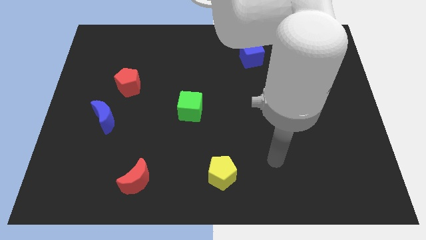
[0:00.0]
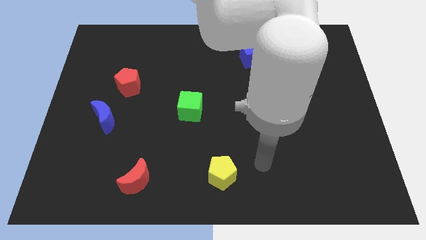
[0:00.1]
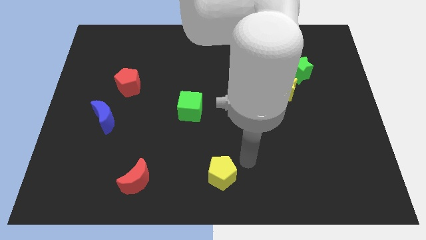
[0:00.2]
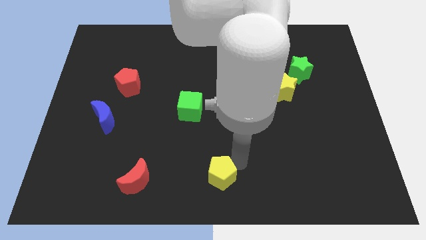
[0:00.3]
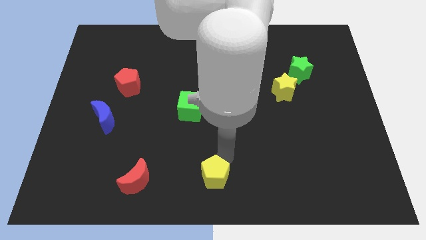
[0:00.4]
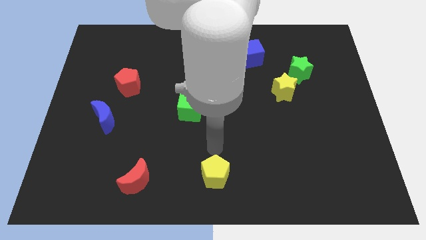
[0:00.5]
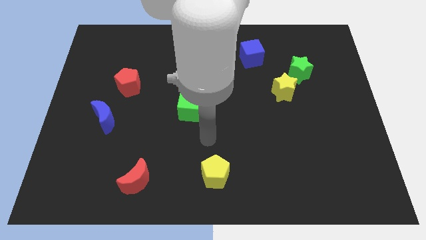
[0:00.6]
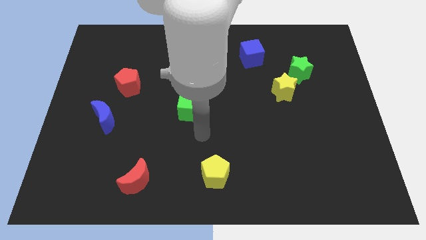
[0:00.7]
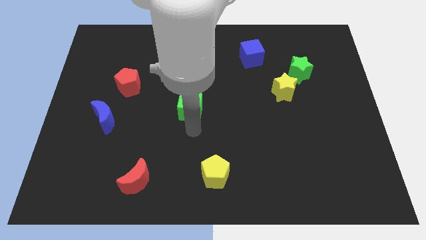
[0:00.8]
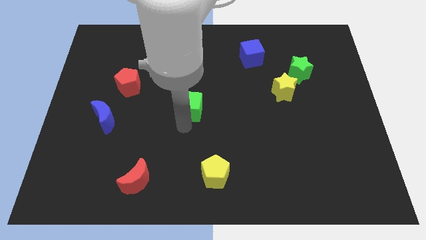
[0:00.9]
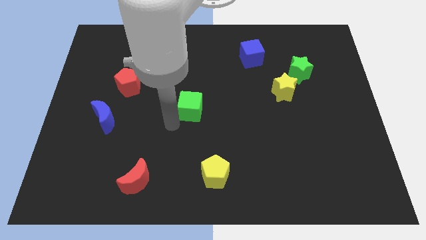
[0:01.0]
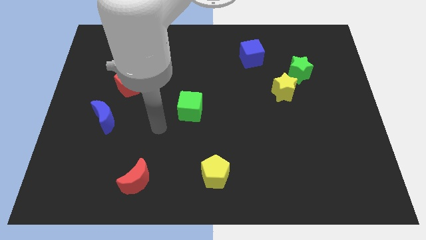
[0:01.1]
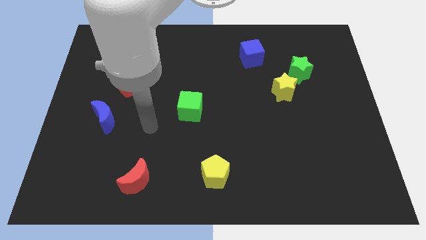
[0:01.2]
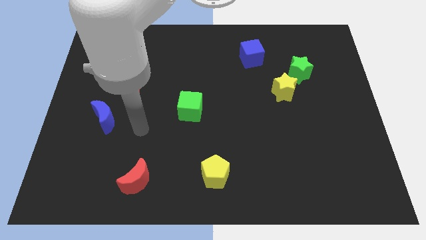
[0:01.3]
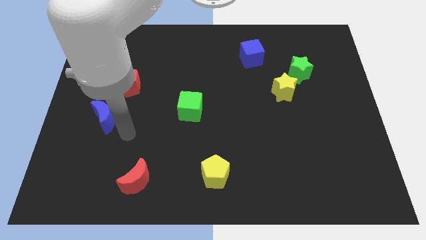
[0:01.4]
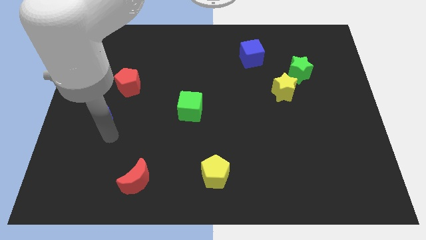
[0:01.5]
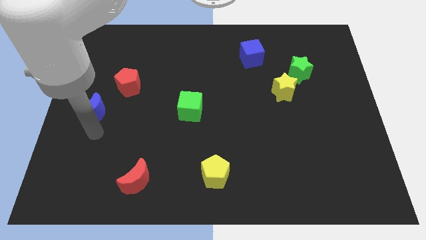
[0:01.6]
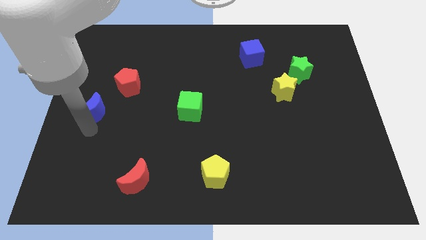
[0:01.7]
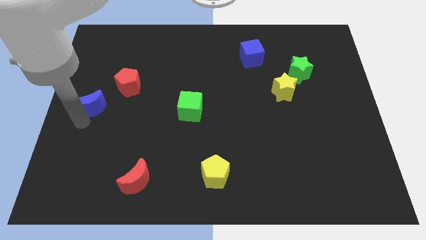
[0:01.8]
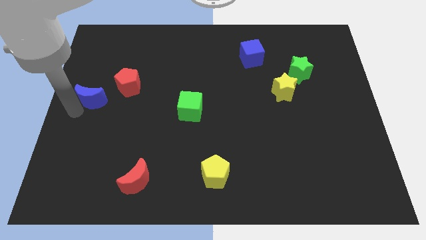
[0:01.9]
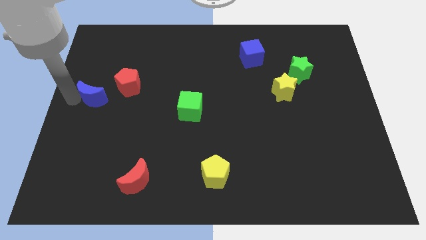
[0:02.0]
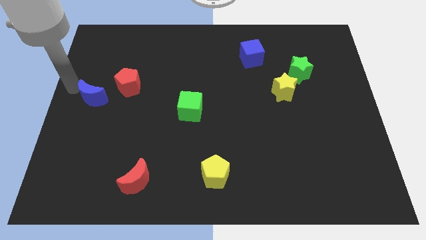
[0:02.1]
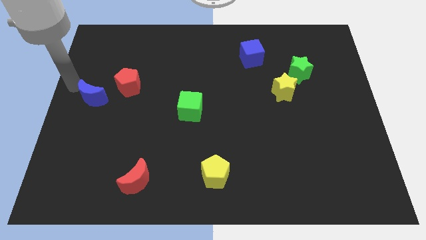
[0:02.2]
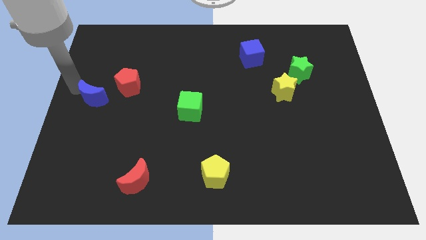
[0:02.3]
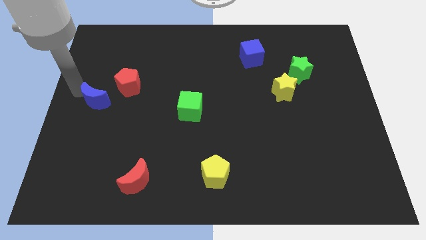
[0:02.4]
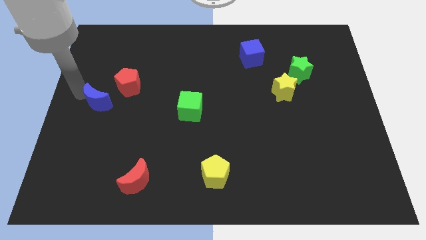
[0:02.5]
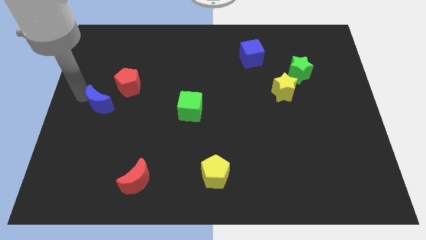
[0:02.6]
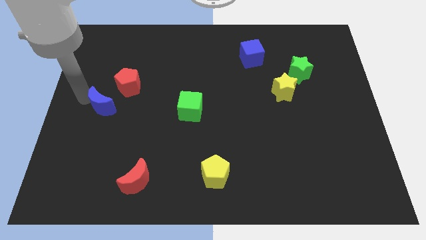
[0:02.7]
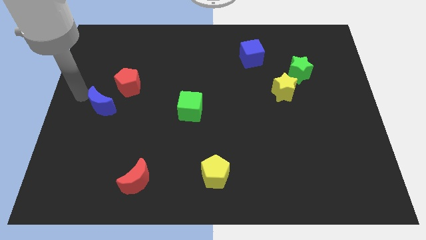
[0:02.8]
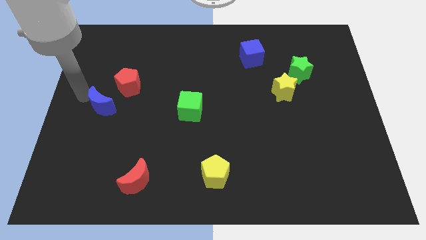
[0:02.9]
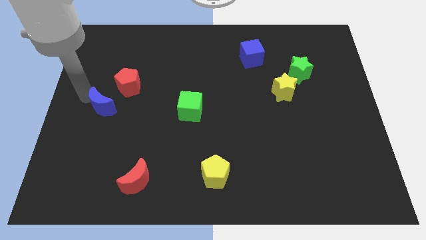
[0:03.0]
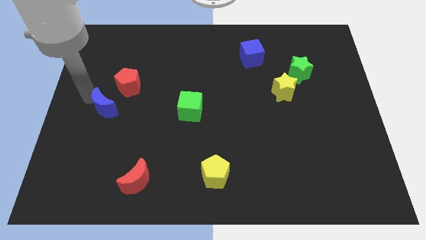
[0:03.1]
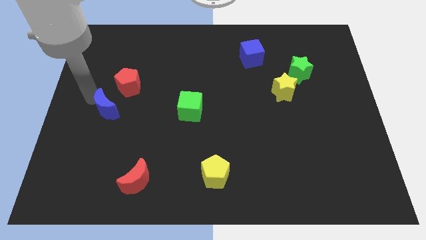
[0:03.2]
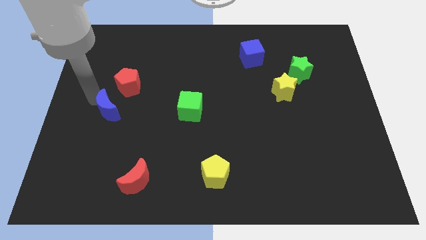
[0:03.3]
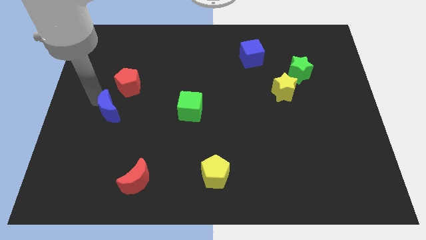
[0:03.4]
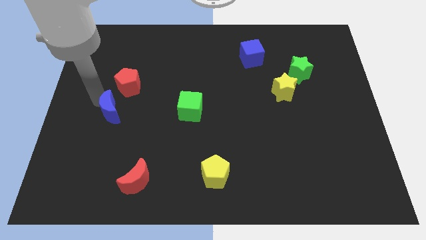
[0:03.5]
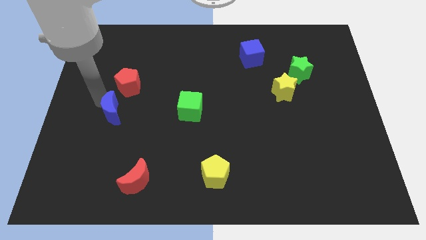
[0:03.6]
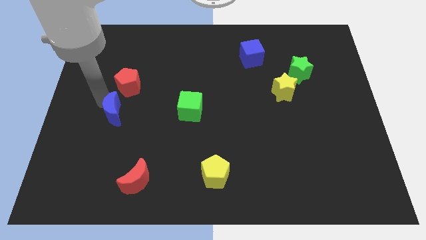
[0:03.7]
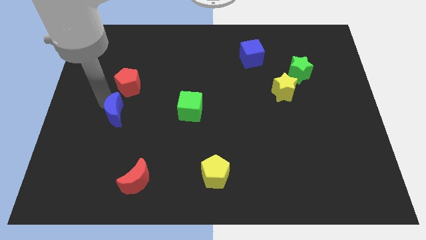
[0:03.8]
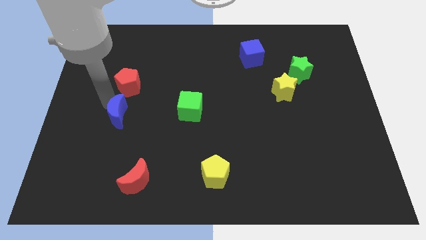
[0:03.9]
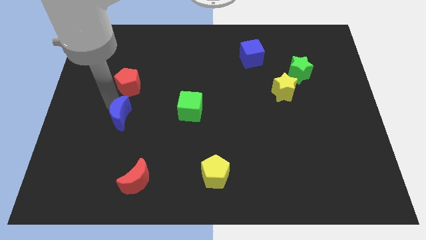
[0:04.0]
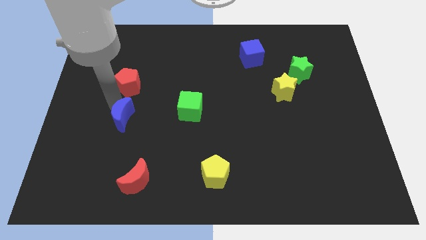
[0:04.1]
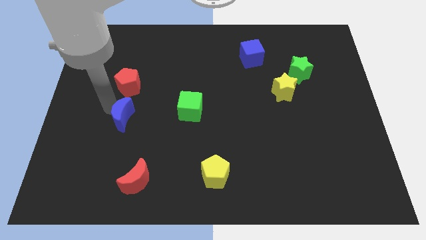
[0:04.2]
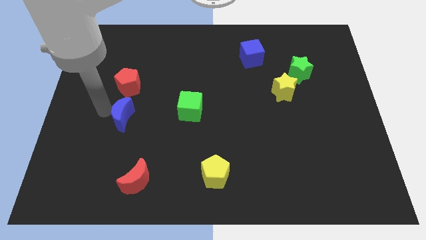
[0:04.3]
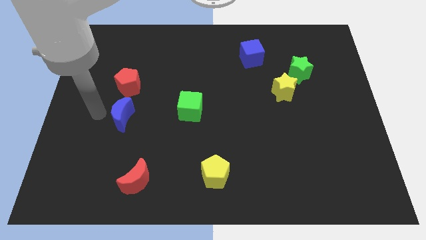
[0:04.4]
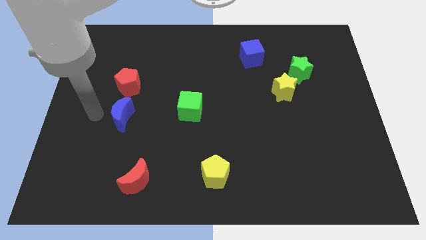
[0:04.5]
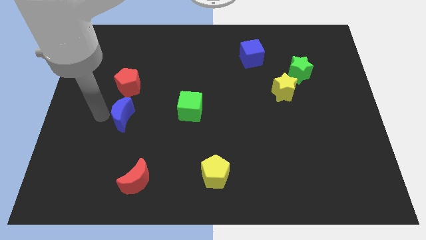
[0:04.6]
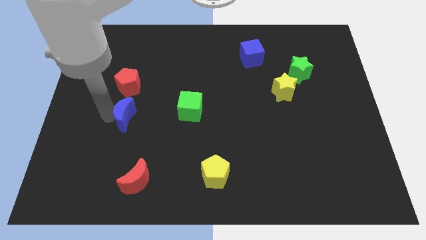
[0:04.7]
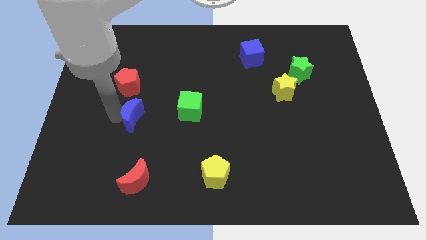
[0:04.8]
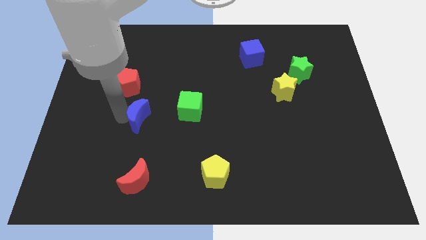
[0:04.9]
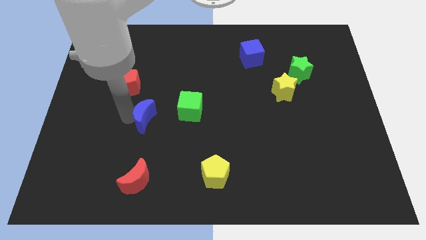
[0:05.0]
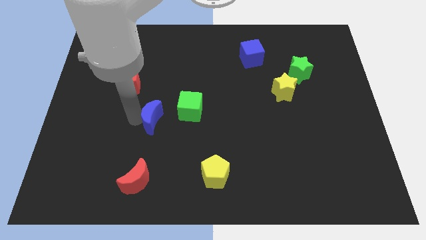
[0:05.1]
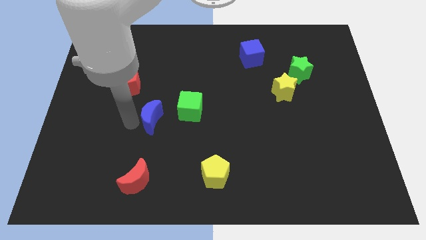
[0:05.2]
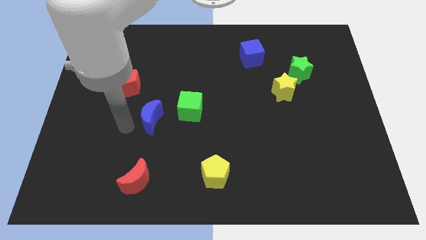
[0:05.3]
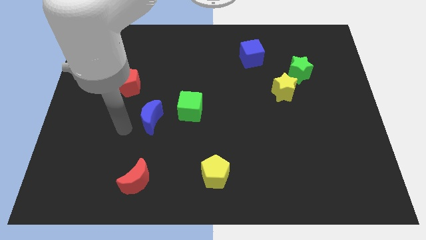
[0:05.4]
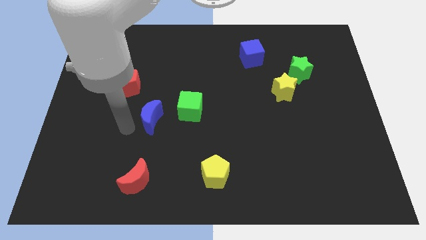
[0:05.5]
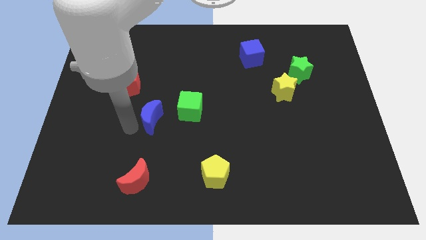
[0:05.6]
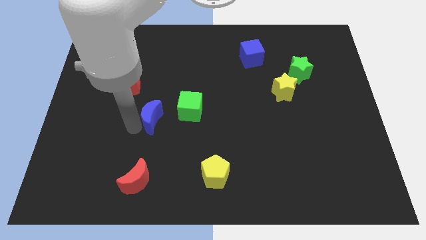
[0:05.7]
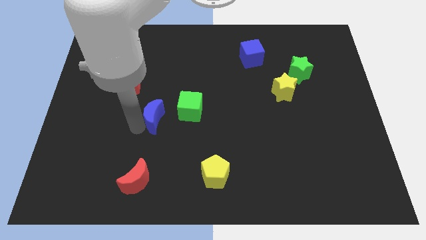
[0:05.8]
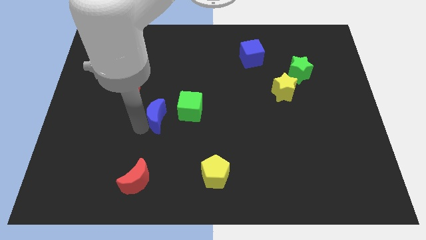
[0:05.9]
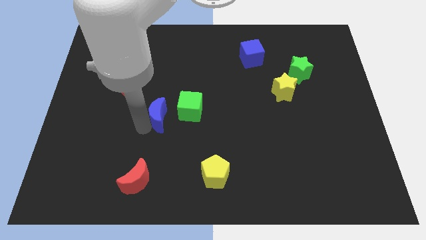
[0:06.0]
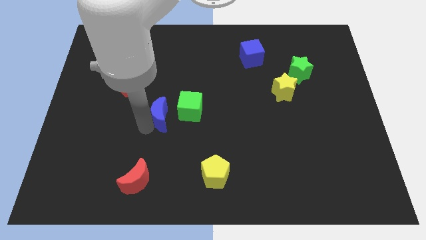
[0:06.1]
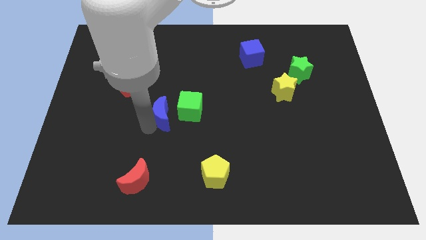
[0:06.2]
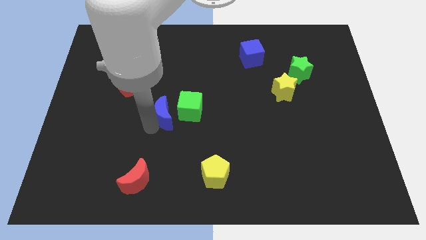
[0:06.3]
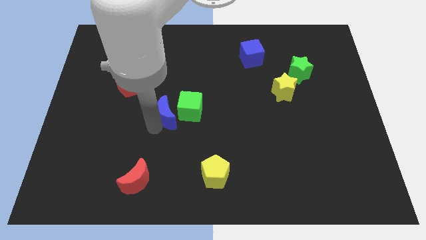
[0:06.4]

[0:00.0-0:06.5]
slide the blue moon to the green cube
